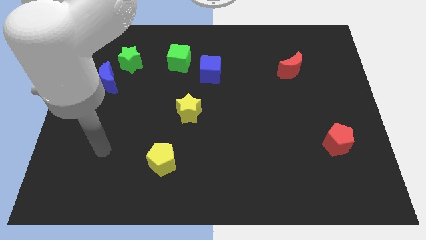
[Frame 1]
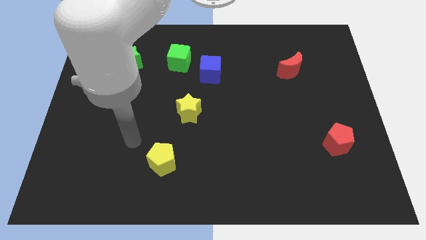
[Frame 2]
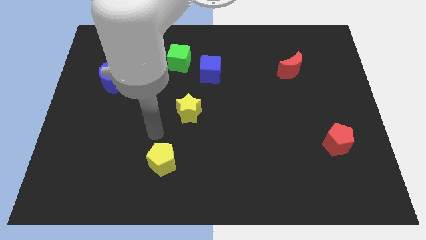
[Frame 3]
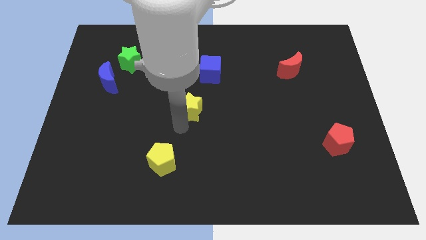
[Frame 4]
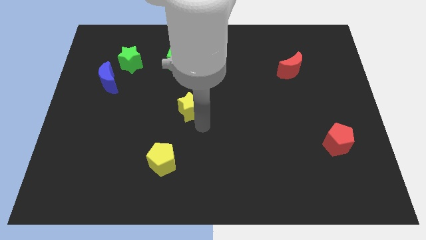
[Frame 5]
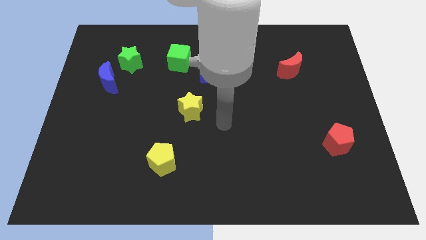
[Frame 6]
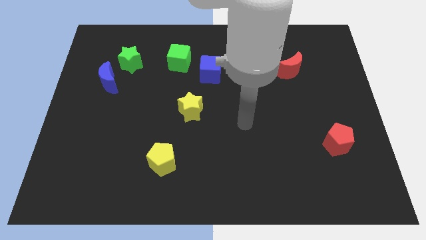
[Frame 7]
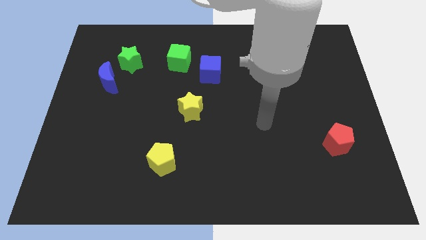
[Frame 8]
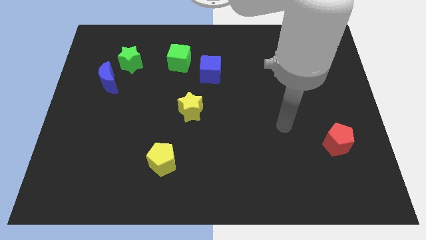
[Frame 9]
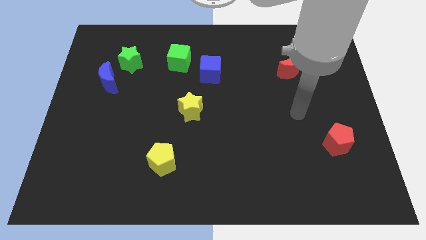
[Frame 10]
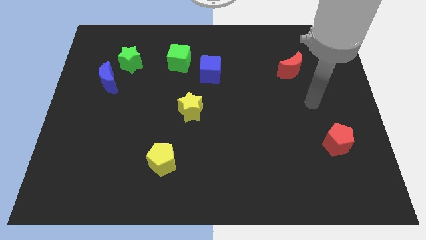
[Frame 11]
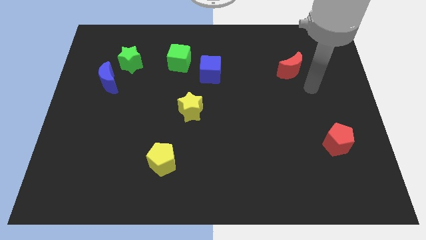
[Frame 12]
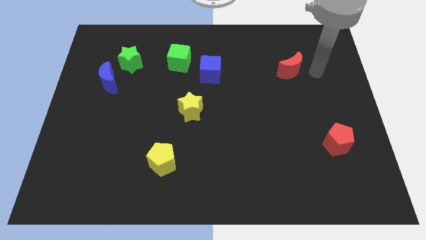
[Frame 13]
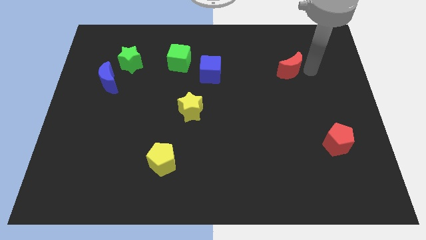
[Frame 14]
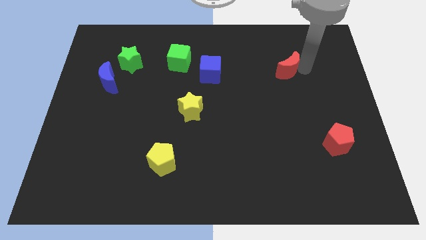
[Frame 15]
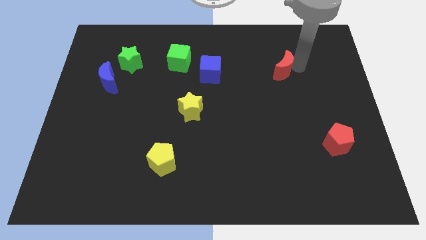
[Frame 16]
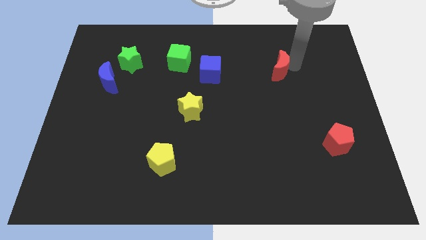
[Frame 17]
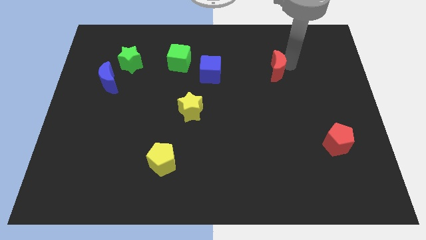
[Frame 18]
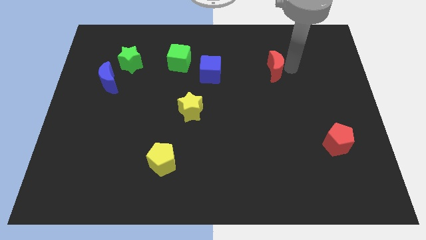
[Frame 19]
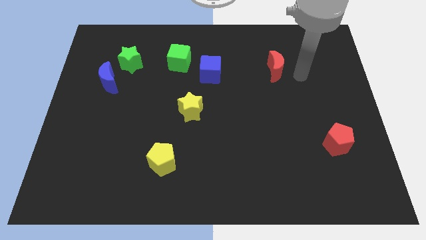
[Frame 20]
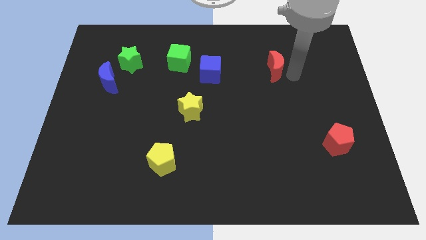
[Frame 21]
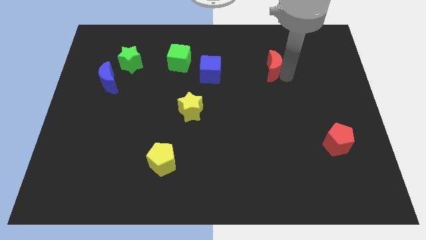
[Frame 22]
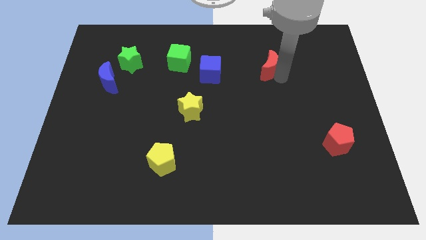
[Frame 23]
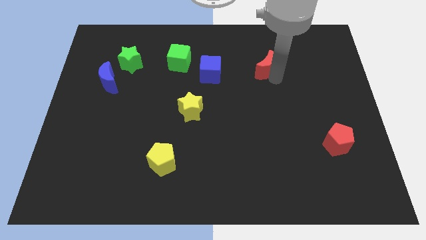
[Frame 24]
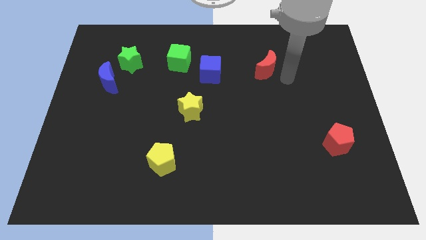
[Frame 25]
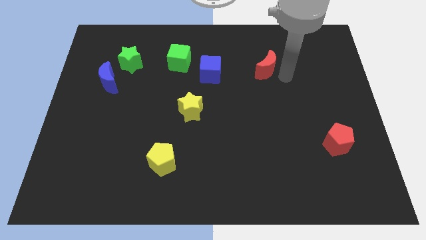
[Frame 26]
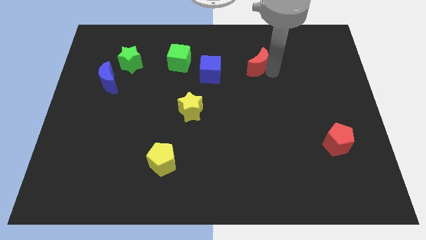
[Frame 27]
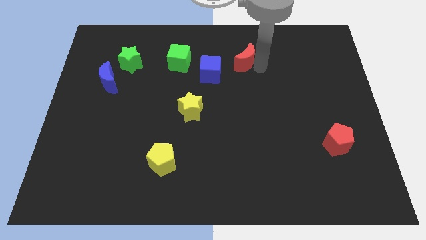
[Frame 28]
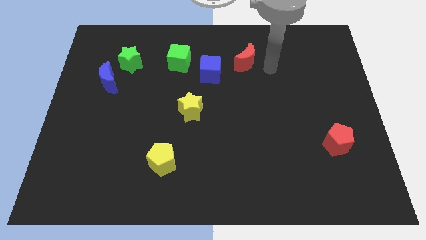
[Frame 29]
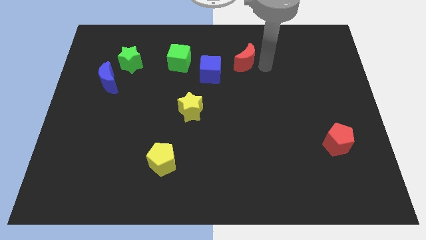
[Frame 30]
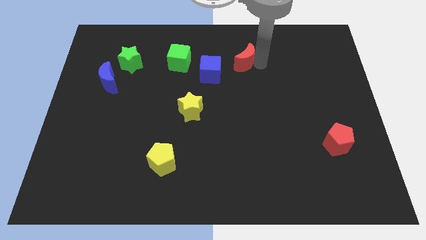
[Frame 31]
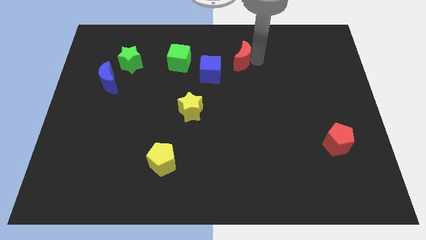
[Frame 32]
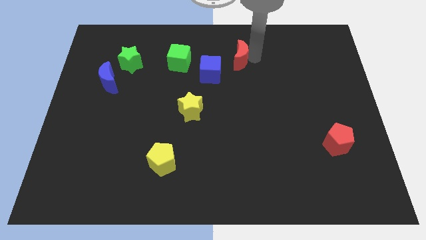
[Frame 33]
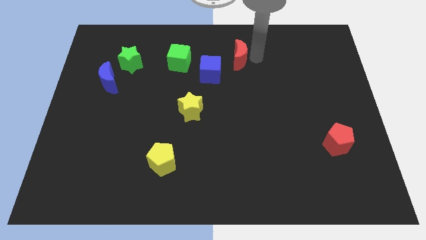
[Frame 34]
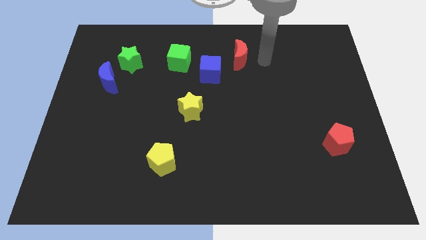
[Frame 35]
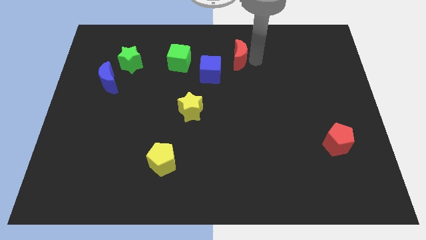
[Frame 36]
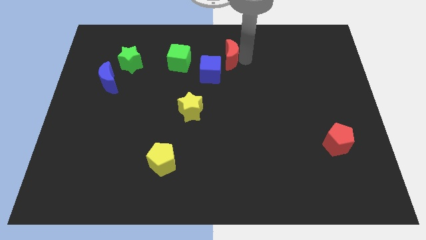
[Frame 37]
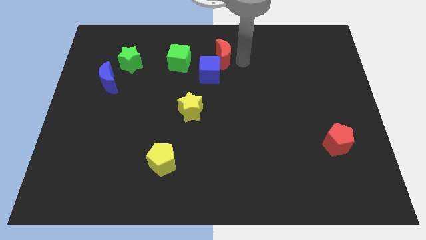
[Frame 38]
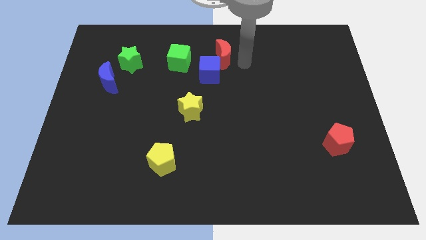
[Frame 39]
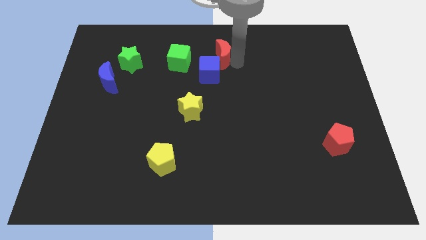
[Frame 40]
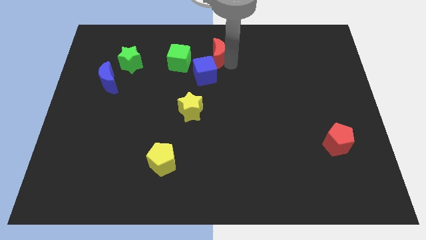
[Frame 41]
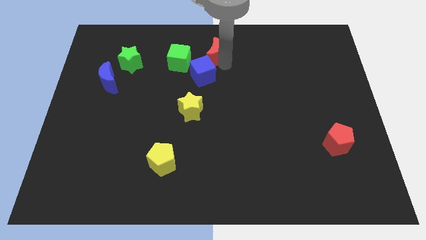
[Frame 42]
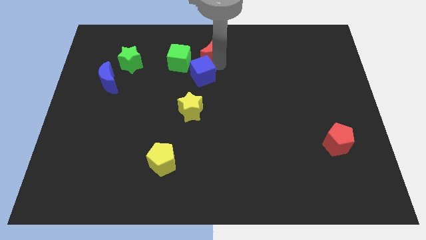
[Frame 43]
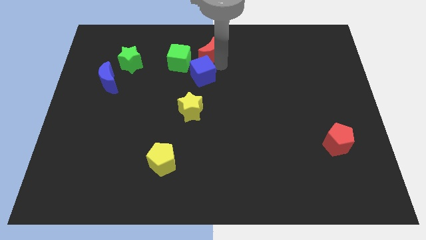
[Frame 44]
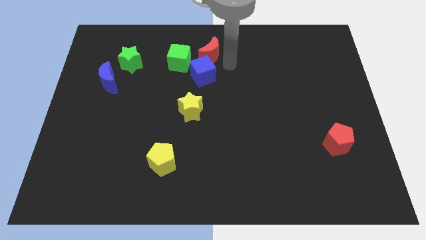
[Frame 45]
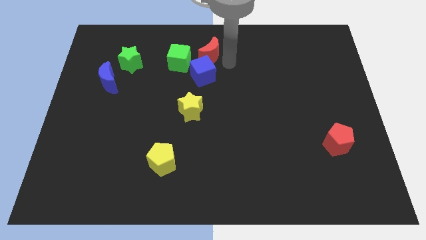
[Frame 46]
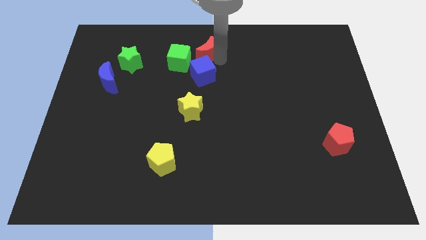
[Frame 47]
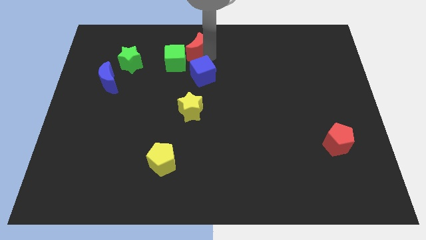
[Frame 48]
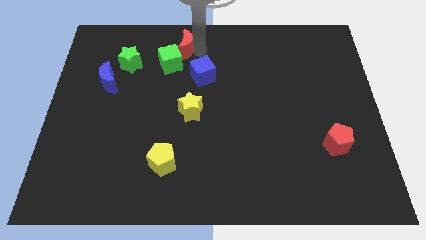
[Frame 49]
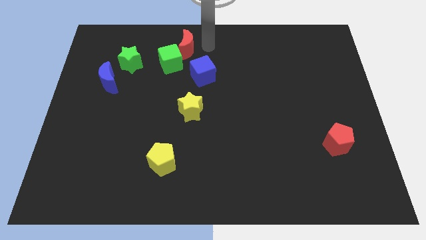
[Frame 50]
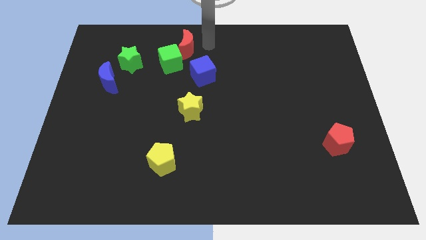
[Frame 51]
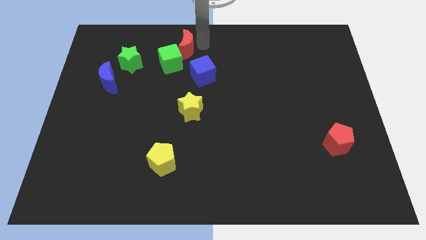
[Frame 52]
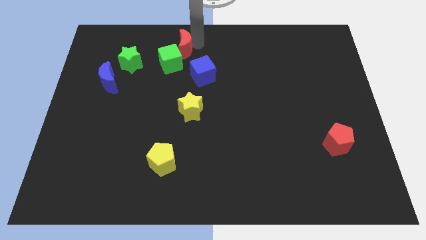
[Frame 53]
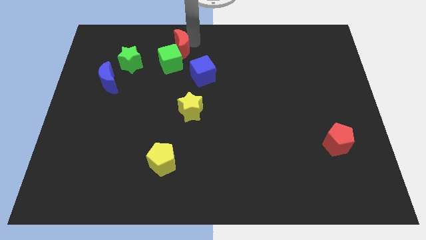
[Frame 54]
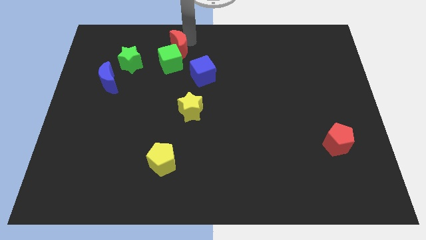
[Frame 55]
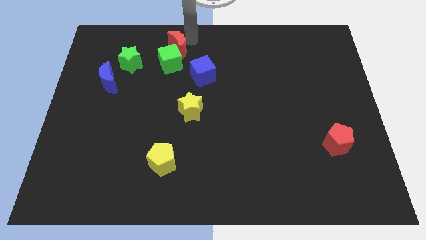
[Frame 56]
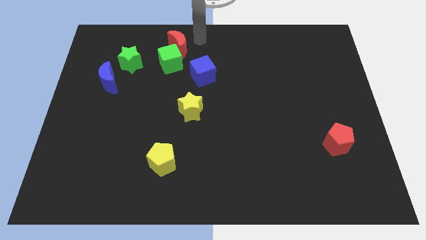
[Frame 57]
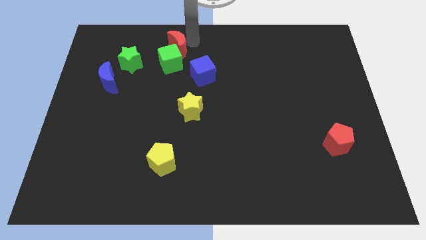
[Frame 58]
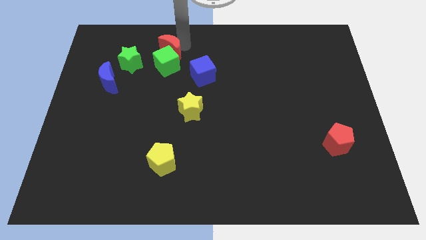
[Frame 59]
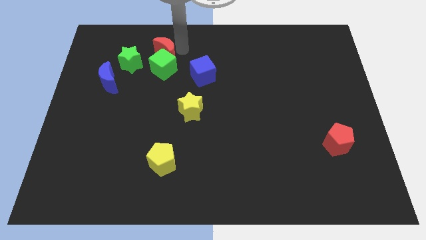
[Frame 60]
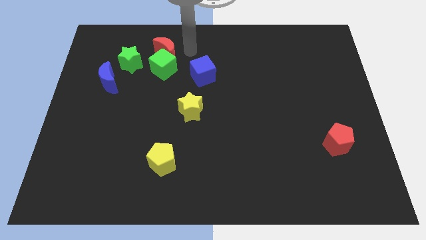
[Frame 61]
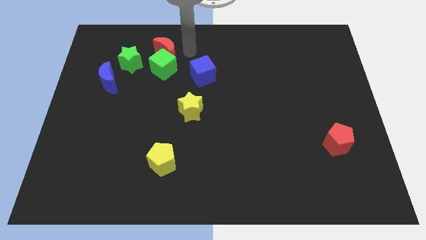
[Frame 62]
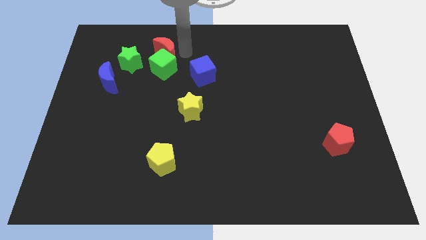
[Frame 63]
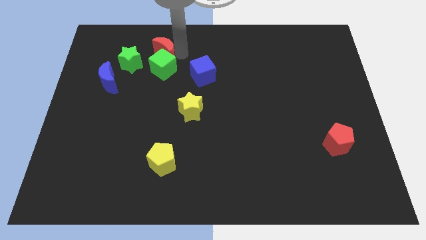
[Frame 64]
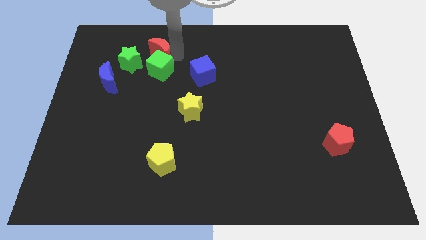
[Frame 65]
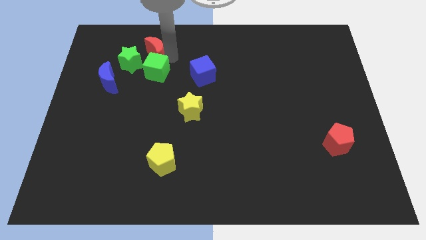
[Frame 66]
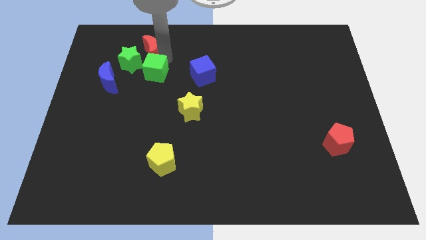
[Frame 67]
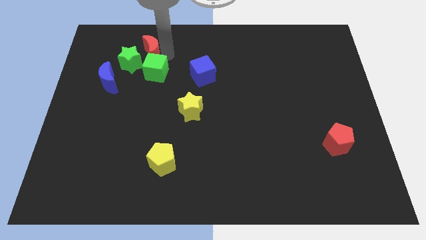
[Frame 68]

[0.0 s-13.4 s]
move the red moon to the green star
